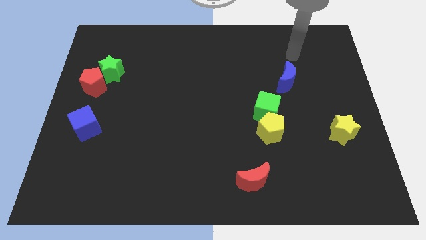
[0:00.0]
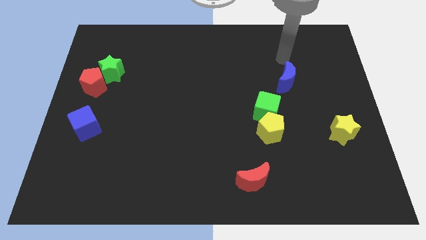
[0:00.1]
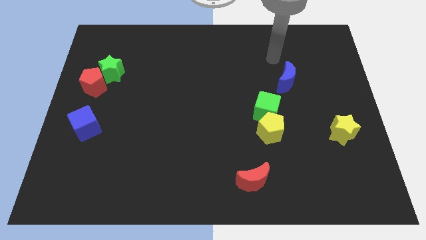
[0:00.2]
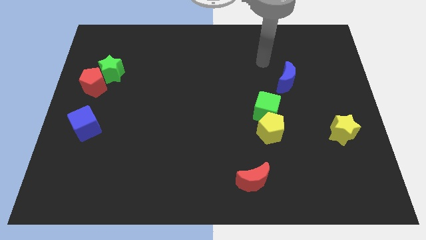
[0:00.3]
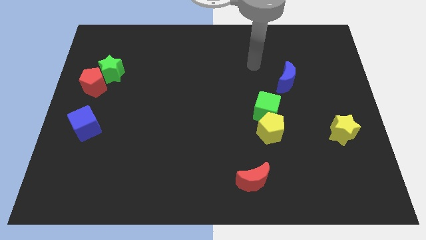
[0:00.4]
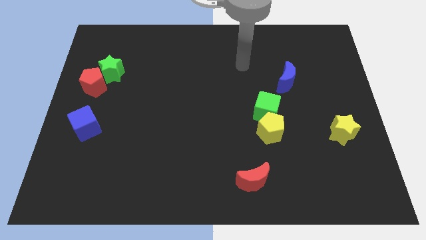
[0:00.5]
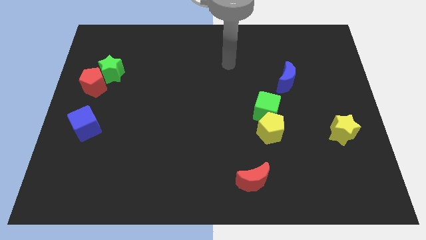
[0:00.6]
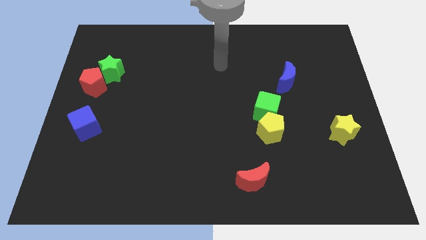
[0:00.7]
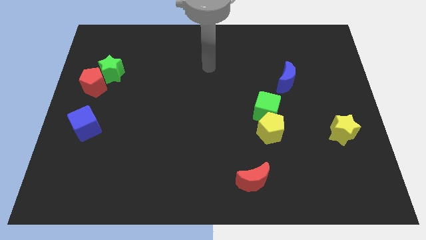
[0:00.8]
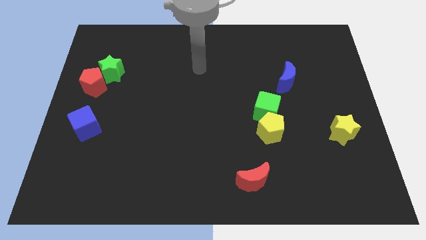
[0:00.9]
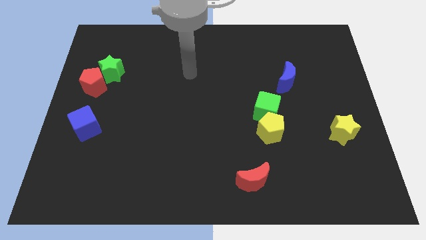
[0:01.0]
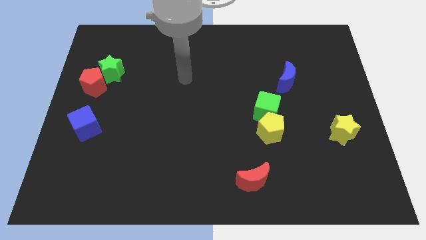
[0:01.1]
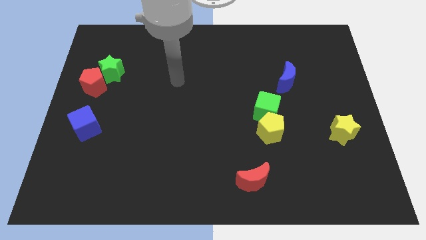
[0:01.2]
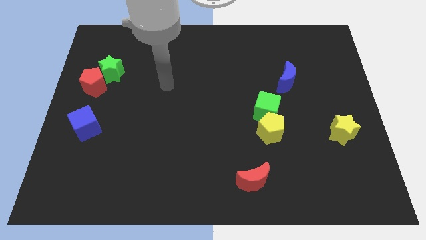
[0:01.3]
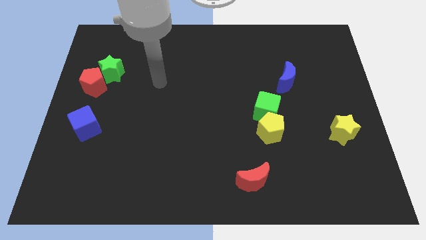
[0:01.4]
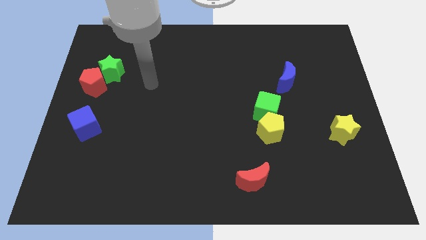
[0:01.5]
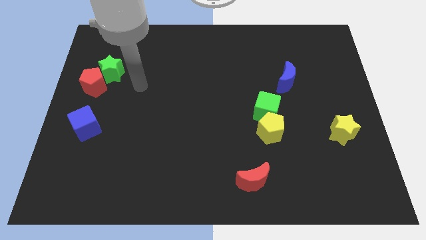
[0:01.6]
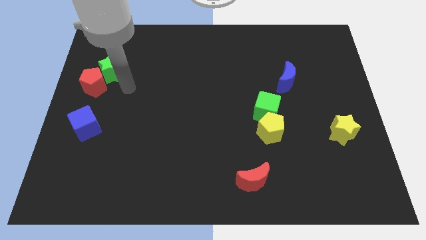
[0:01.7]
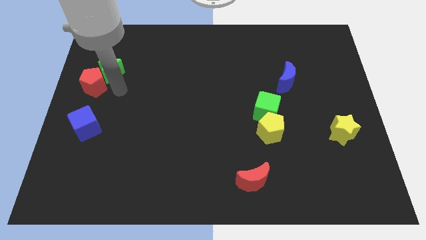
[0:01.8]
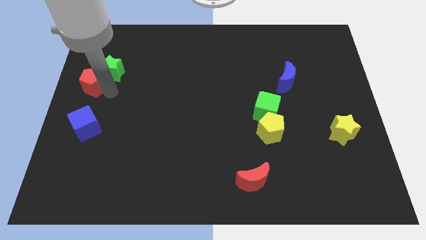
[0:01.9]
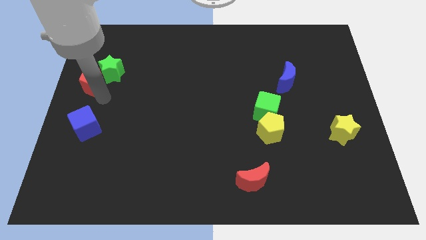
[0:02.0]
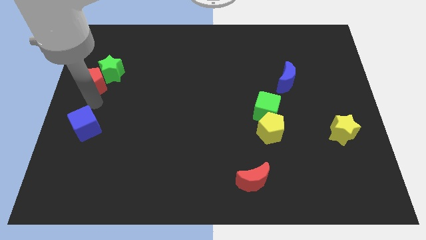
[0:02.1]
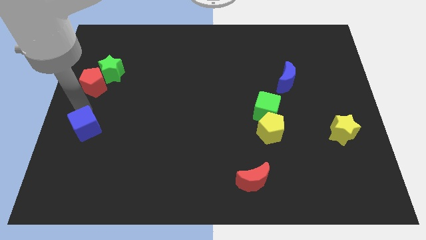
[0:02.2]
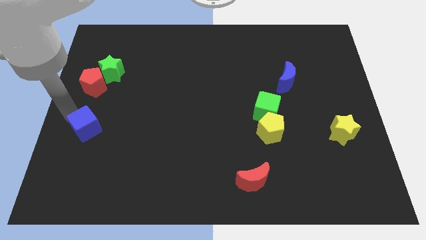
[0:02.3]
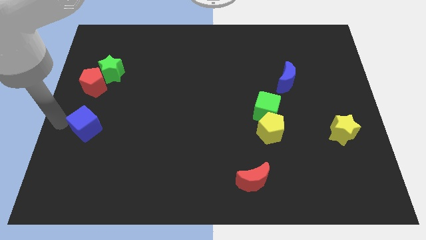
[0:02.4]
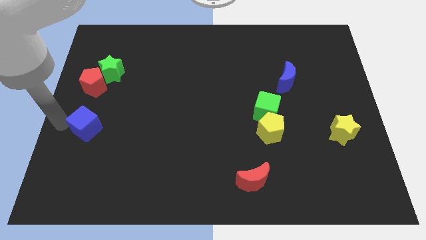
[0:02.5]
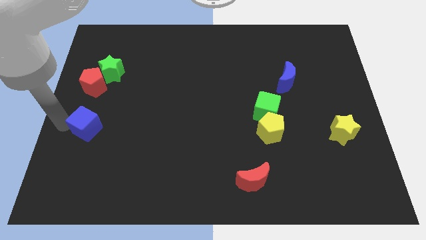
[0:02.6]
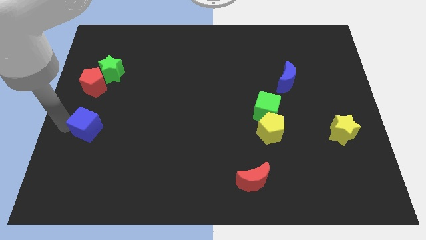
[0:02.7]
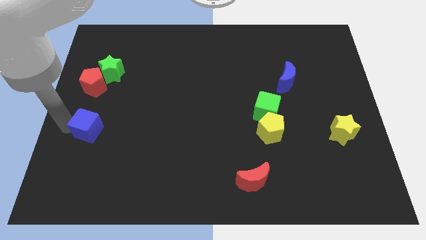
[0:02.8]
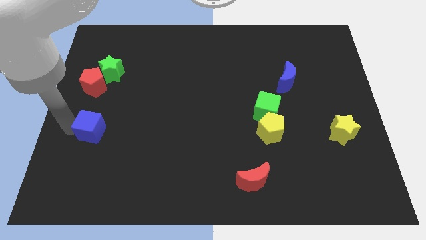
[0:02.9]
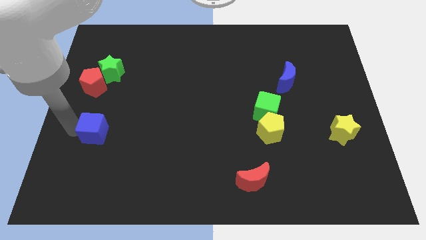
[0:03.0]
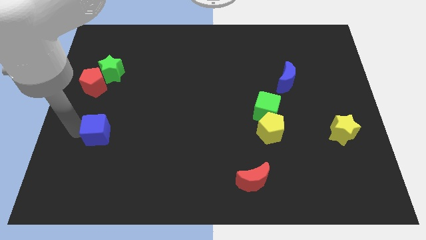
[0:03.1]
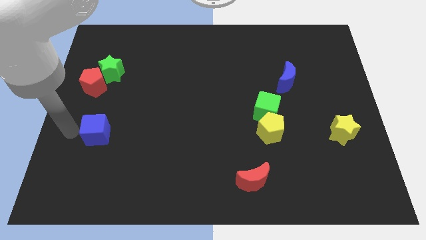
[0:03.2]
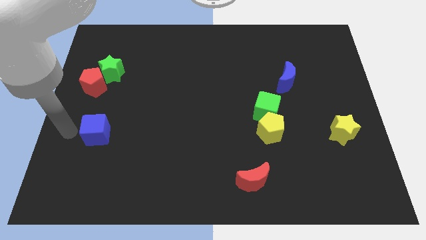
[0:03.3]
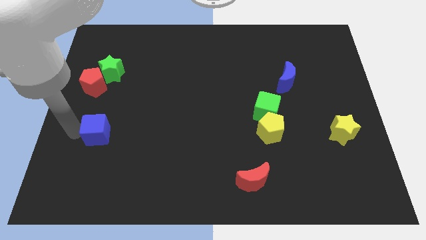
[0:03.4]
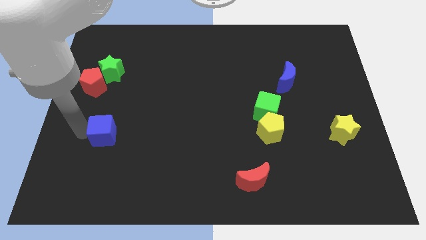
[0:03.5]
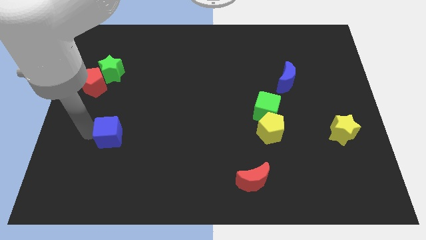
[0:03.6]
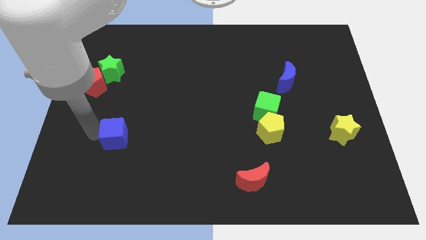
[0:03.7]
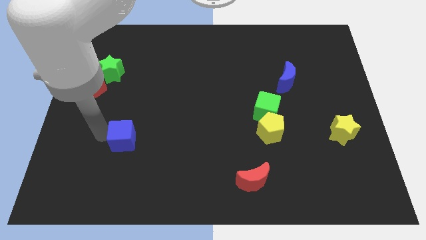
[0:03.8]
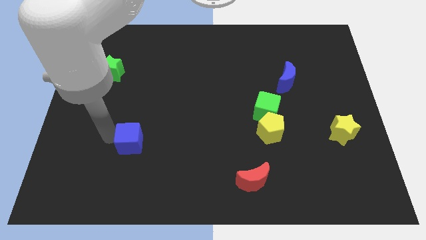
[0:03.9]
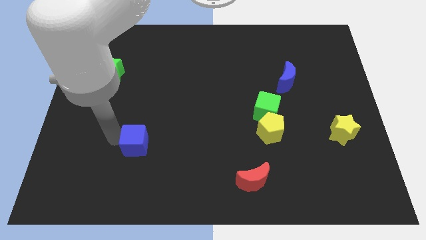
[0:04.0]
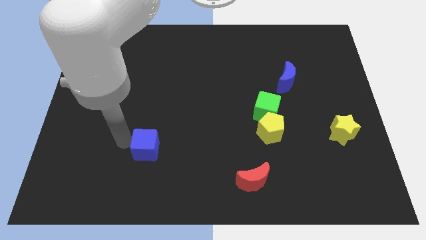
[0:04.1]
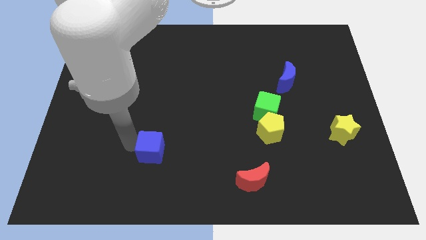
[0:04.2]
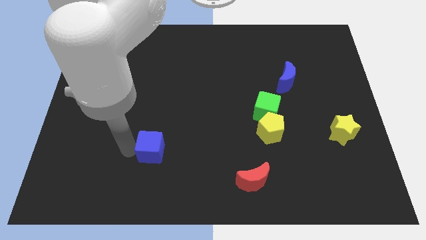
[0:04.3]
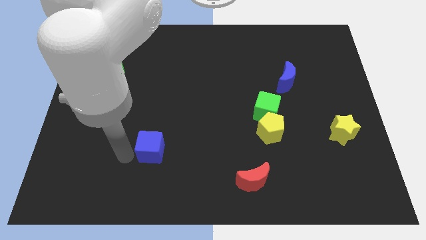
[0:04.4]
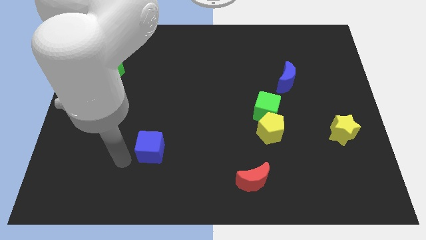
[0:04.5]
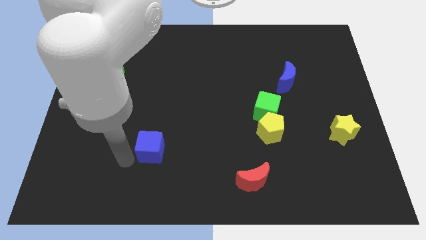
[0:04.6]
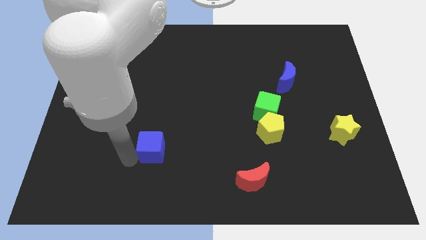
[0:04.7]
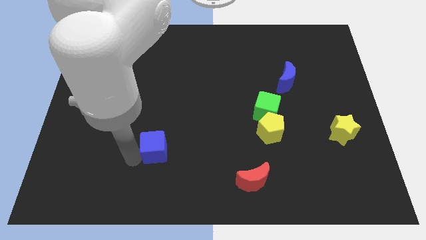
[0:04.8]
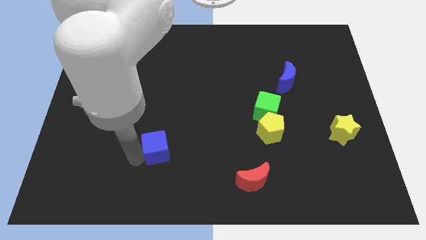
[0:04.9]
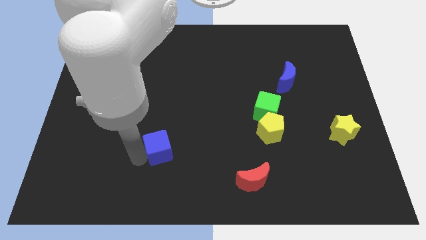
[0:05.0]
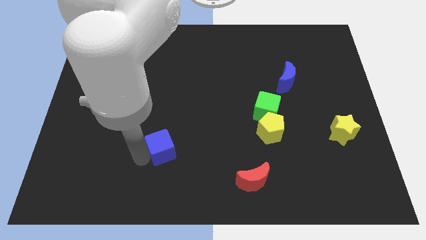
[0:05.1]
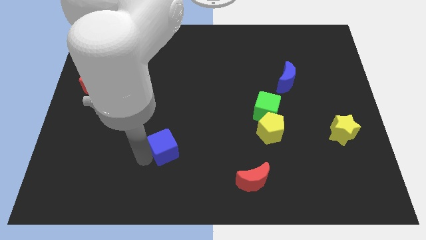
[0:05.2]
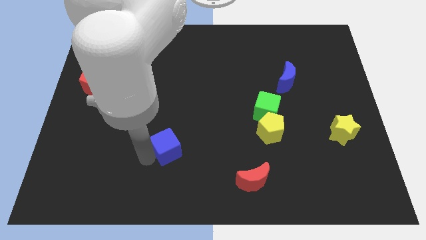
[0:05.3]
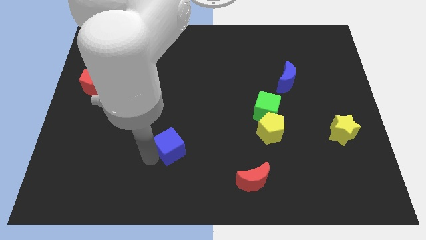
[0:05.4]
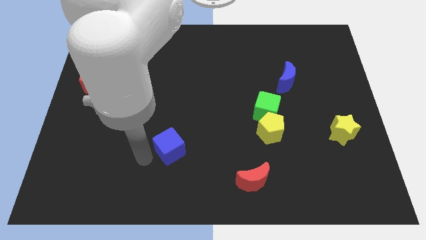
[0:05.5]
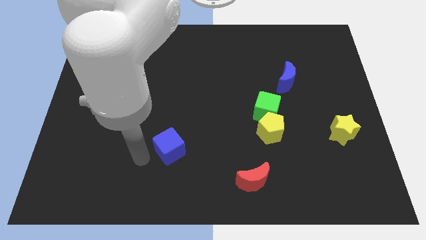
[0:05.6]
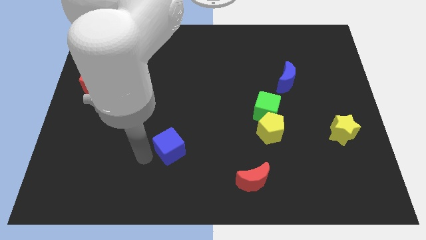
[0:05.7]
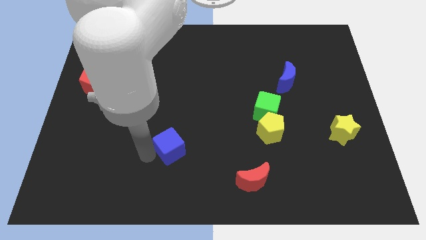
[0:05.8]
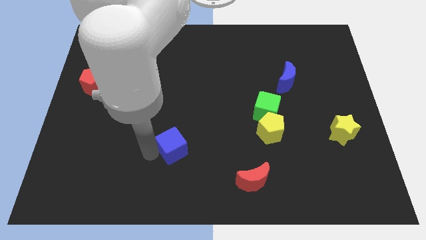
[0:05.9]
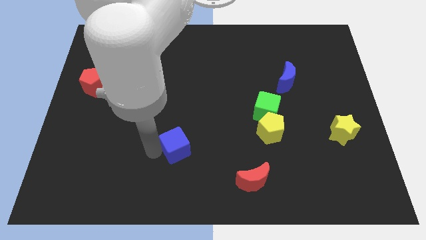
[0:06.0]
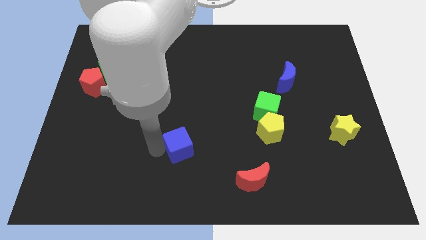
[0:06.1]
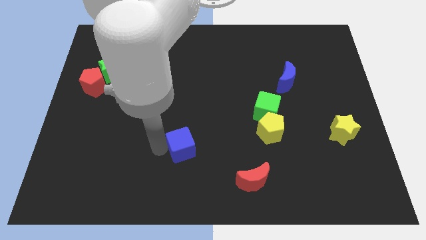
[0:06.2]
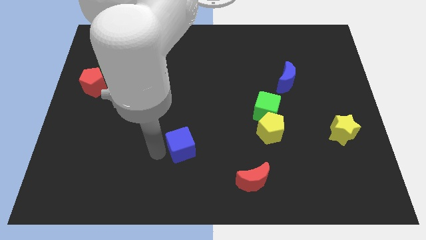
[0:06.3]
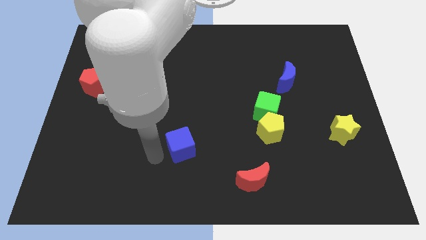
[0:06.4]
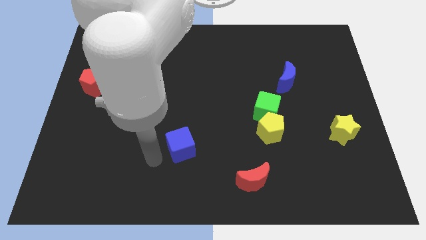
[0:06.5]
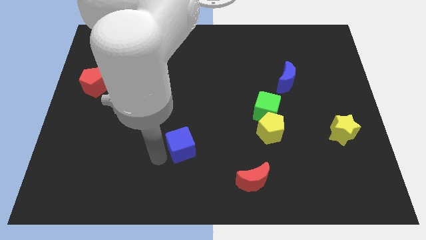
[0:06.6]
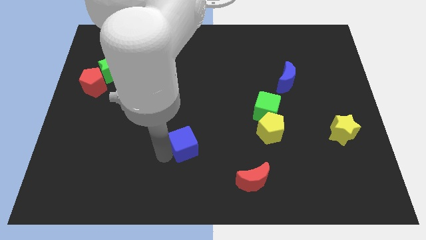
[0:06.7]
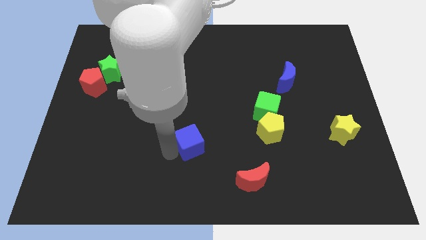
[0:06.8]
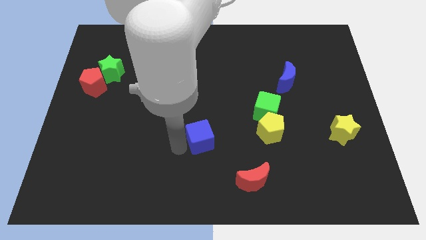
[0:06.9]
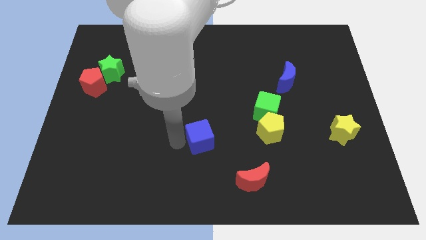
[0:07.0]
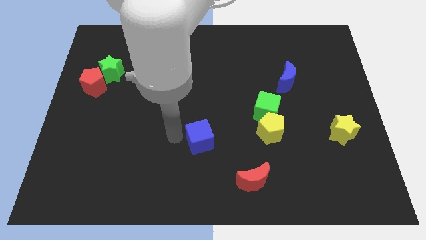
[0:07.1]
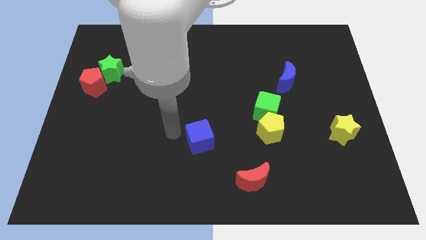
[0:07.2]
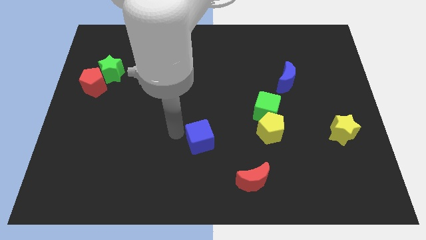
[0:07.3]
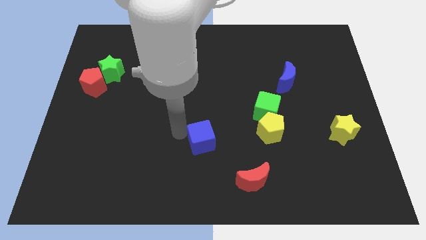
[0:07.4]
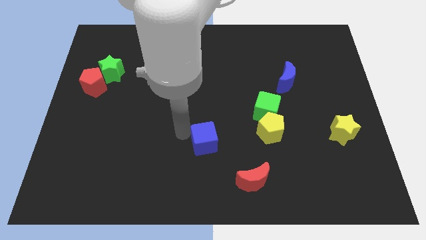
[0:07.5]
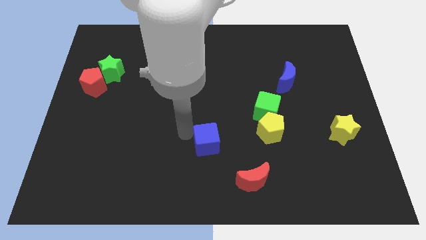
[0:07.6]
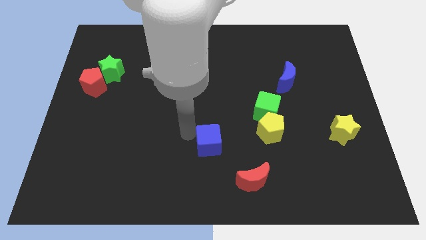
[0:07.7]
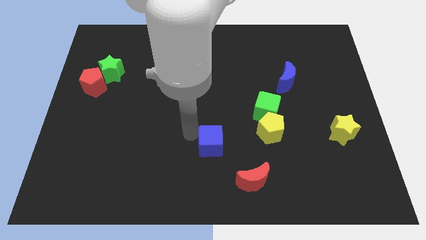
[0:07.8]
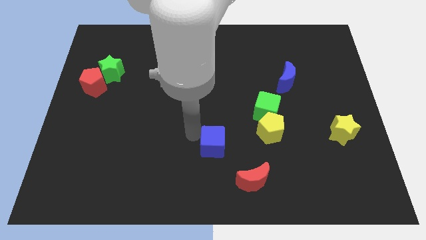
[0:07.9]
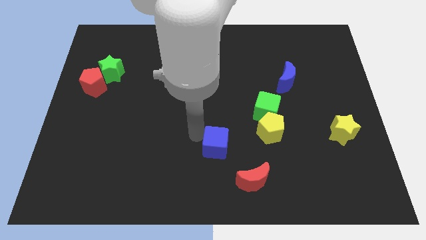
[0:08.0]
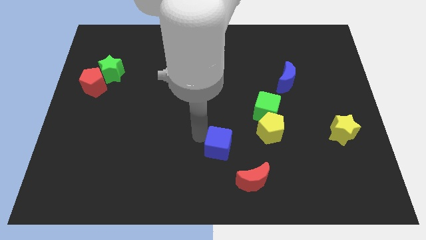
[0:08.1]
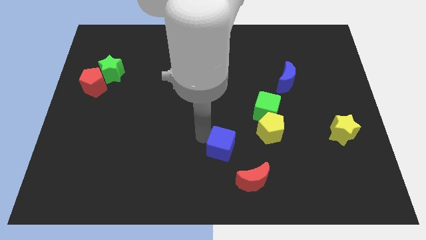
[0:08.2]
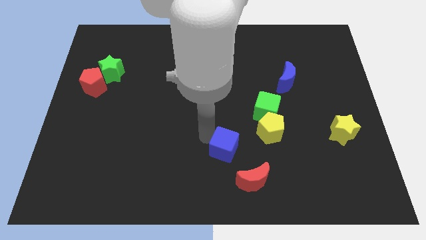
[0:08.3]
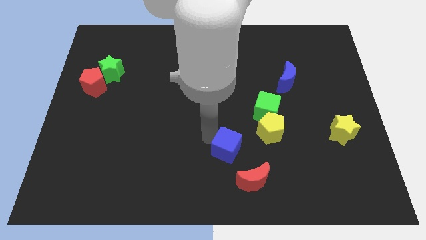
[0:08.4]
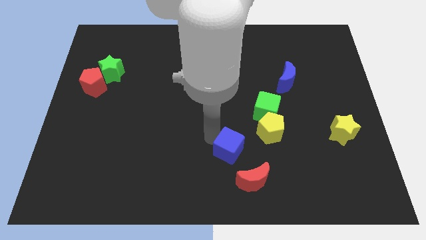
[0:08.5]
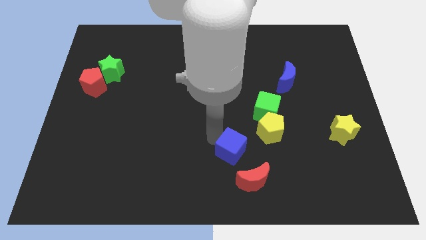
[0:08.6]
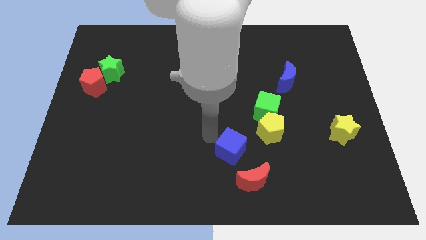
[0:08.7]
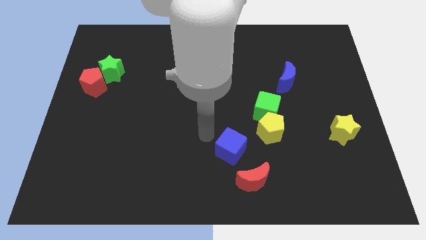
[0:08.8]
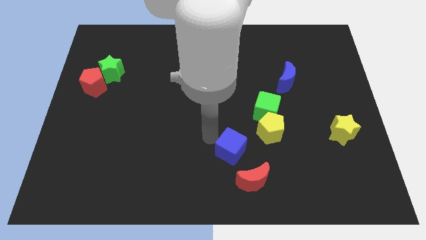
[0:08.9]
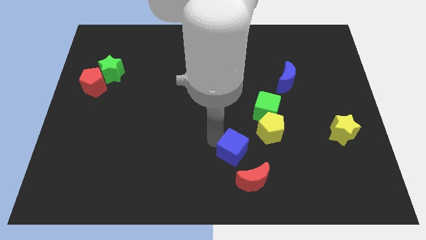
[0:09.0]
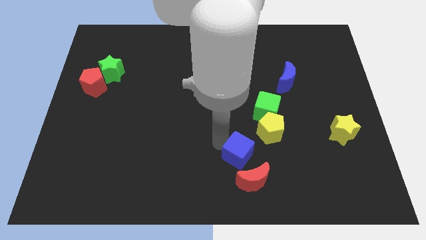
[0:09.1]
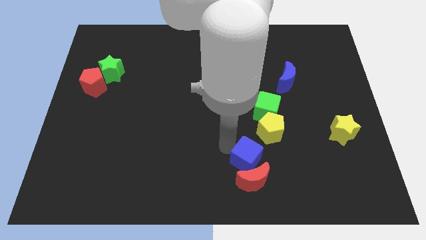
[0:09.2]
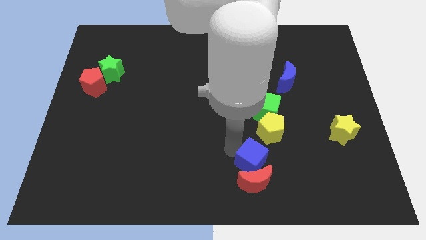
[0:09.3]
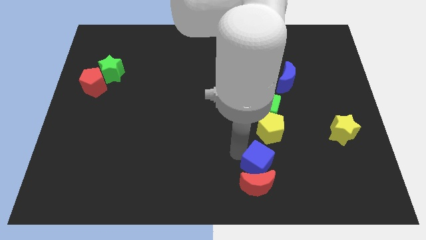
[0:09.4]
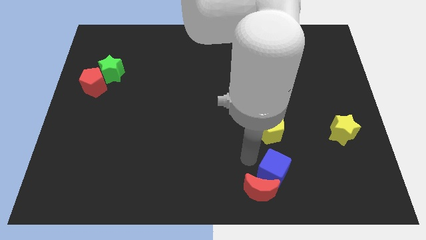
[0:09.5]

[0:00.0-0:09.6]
move the blue cube right of the red moon
